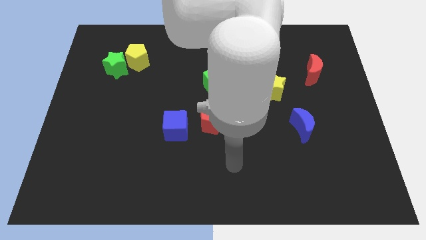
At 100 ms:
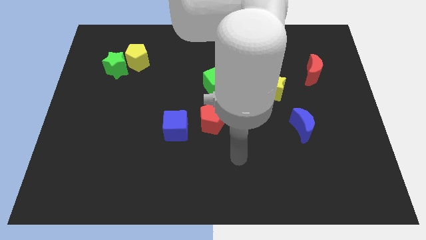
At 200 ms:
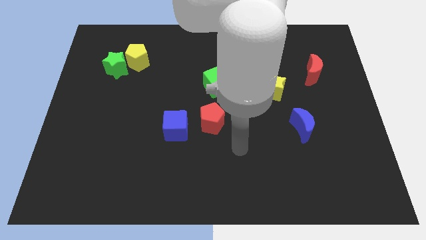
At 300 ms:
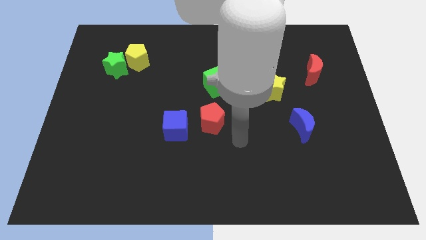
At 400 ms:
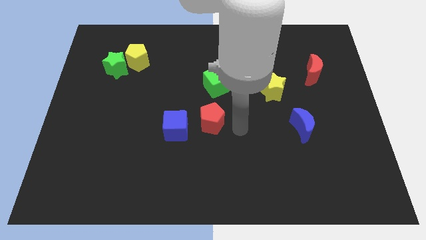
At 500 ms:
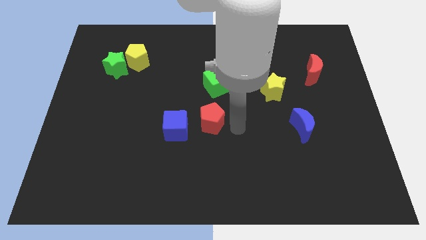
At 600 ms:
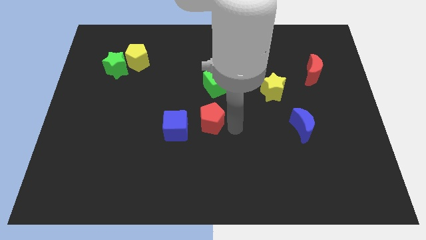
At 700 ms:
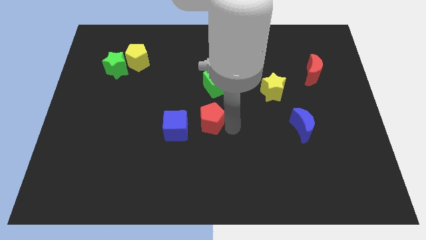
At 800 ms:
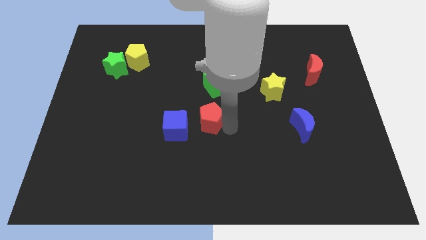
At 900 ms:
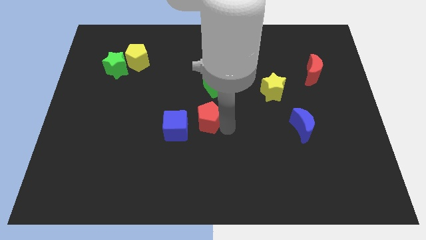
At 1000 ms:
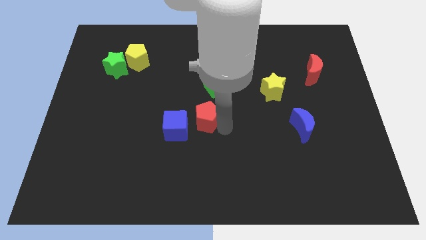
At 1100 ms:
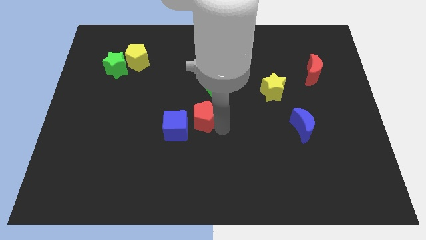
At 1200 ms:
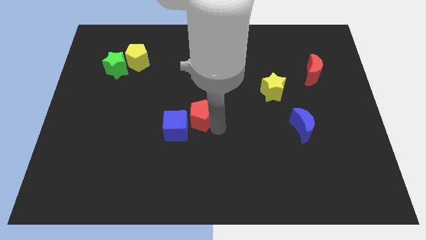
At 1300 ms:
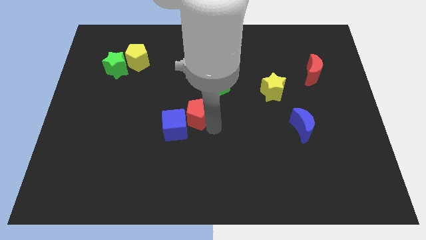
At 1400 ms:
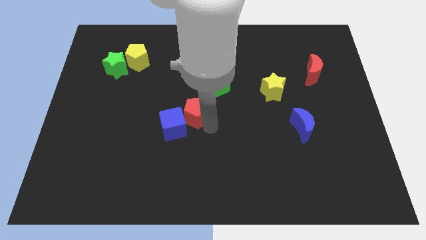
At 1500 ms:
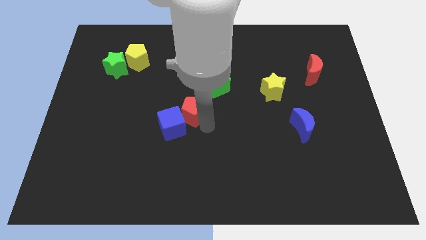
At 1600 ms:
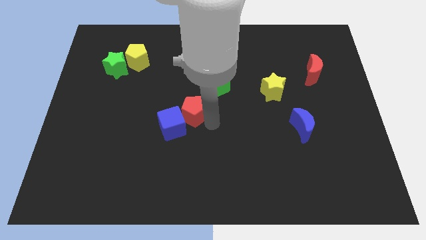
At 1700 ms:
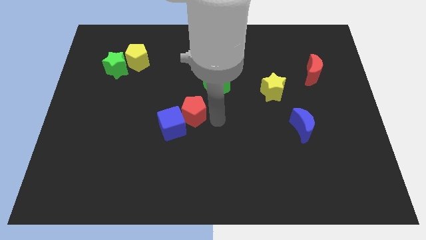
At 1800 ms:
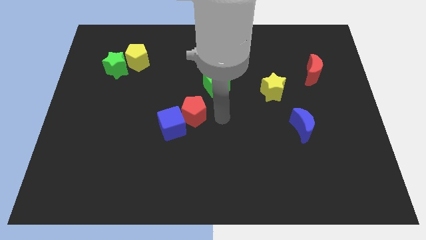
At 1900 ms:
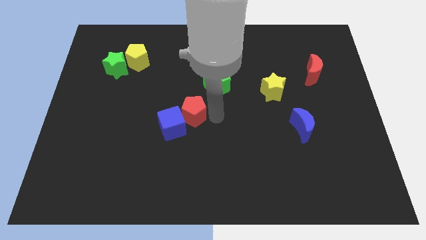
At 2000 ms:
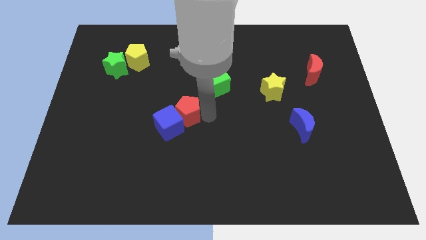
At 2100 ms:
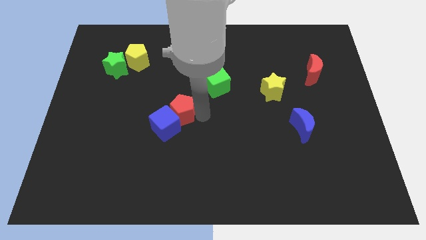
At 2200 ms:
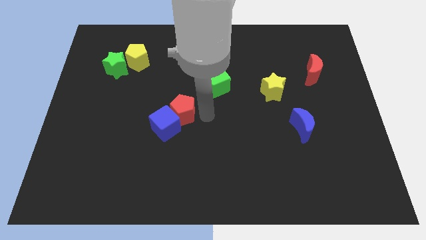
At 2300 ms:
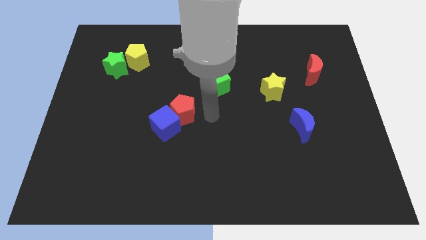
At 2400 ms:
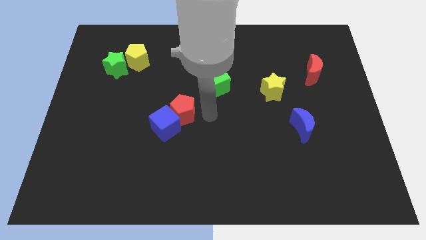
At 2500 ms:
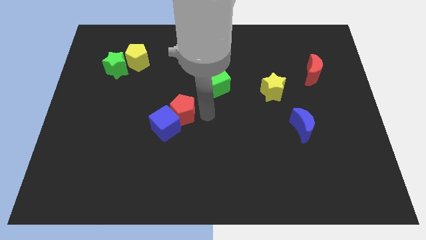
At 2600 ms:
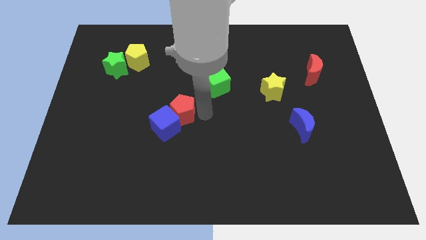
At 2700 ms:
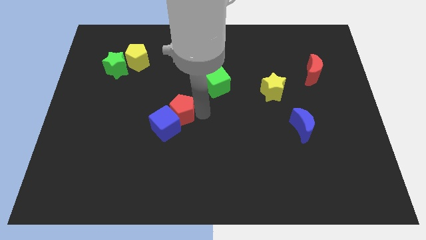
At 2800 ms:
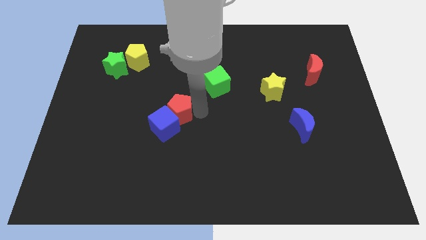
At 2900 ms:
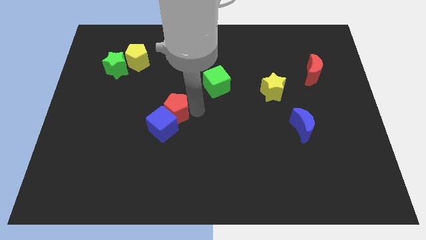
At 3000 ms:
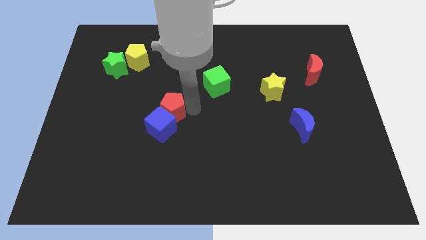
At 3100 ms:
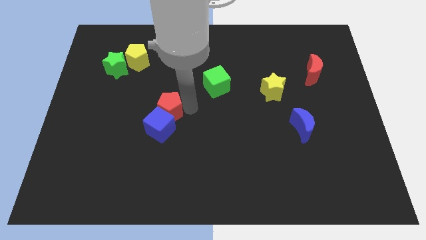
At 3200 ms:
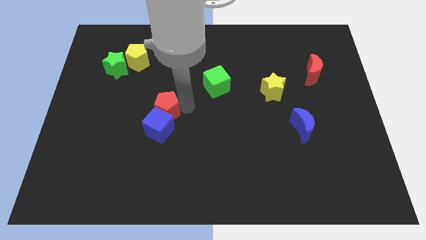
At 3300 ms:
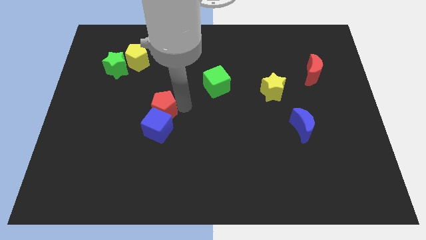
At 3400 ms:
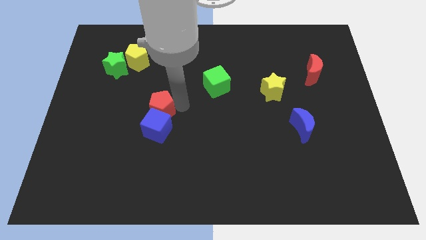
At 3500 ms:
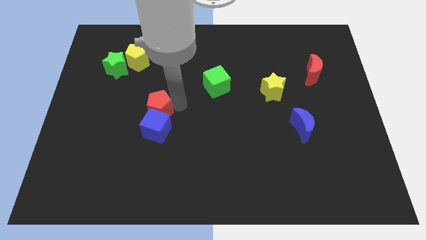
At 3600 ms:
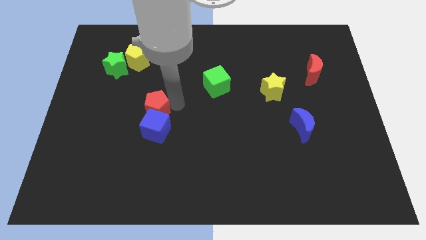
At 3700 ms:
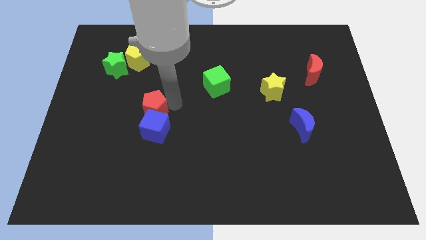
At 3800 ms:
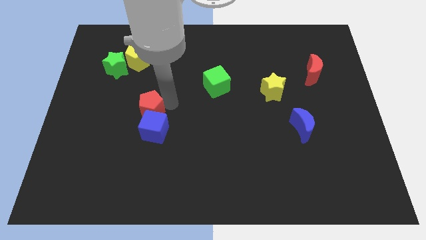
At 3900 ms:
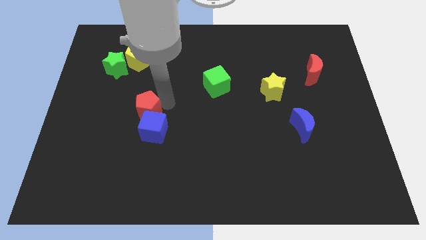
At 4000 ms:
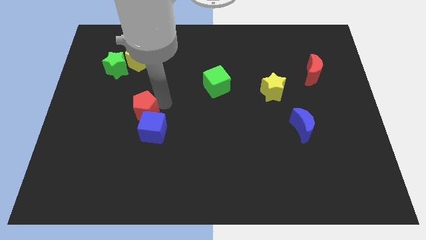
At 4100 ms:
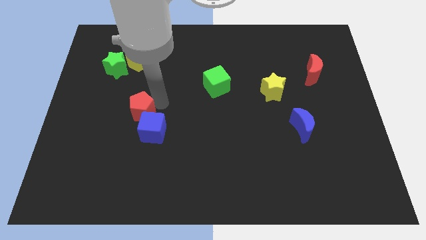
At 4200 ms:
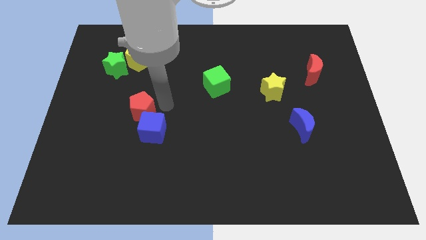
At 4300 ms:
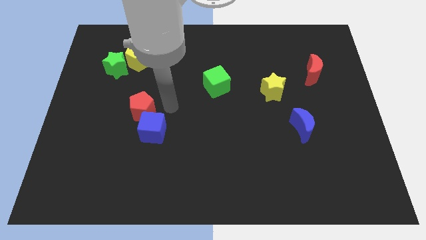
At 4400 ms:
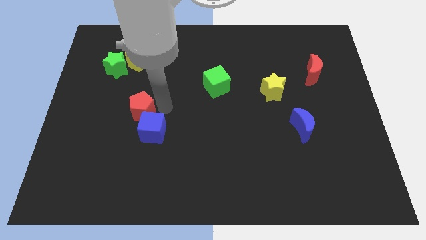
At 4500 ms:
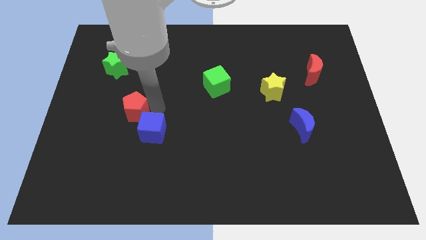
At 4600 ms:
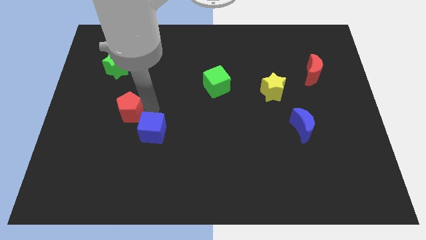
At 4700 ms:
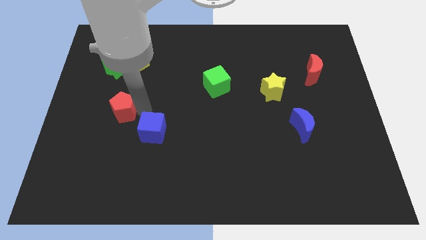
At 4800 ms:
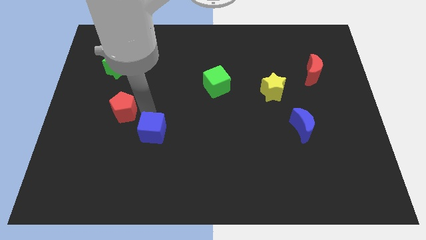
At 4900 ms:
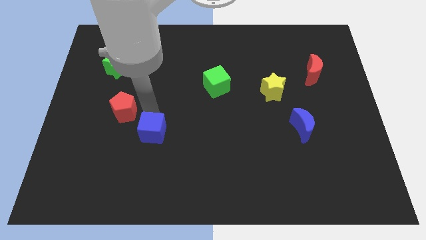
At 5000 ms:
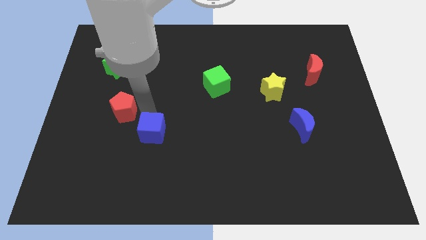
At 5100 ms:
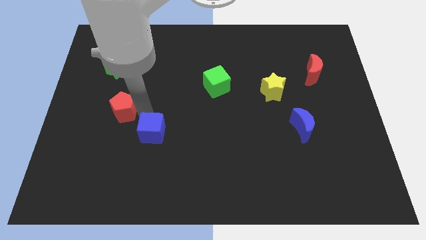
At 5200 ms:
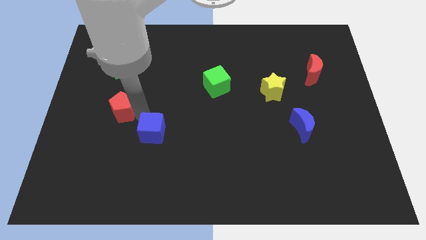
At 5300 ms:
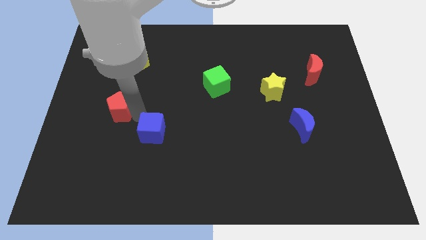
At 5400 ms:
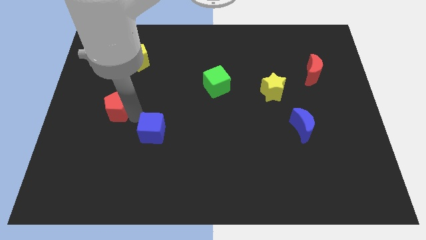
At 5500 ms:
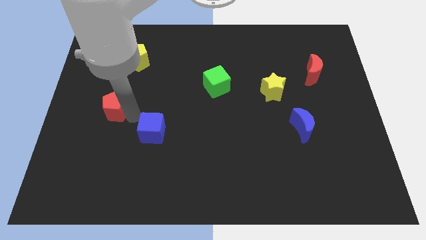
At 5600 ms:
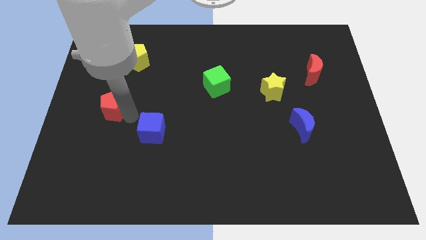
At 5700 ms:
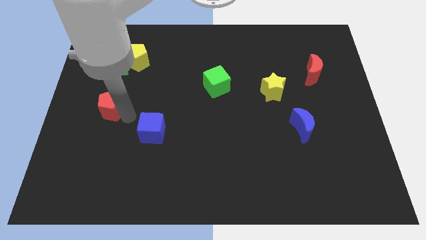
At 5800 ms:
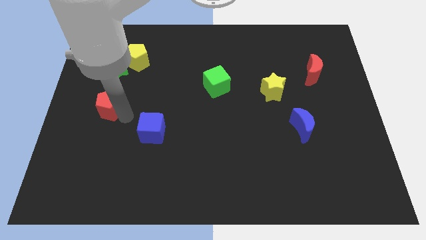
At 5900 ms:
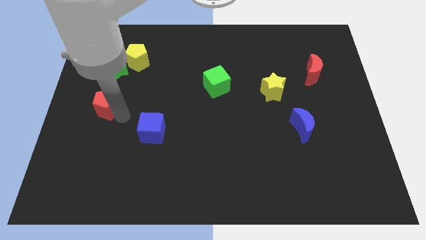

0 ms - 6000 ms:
move the red pentagon to the center left
